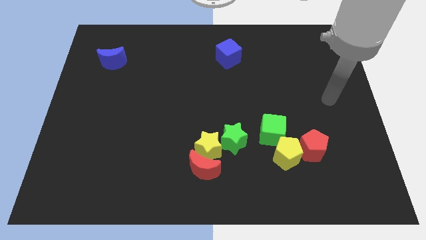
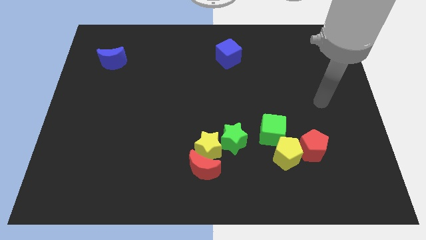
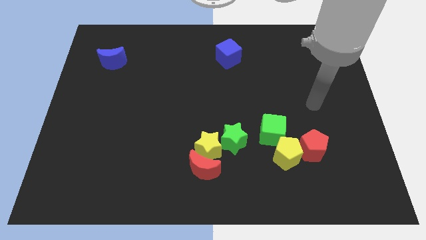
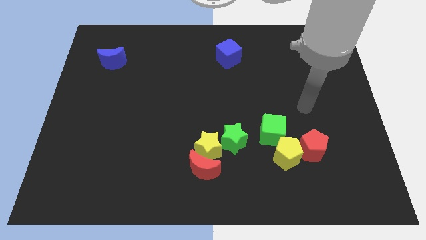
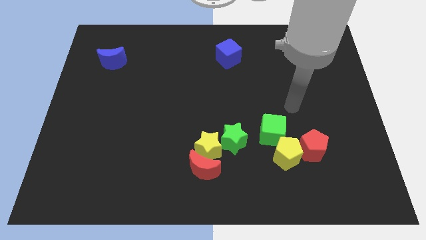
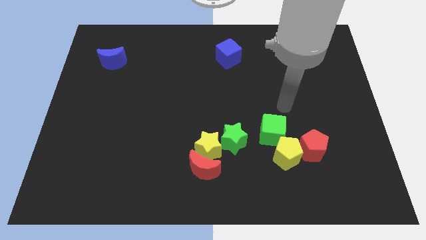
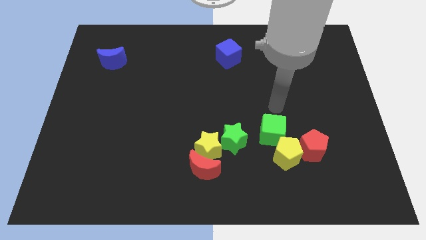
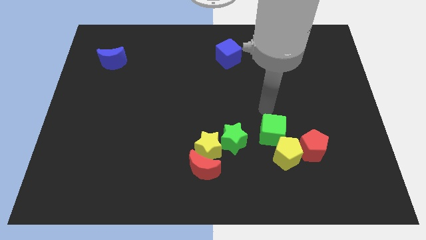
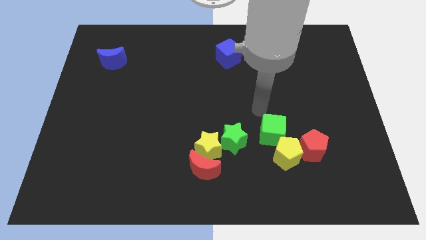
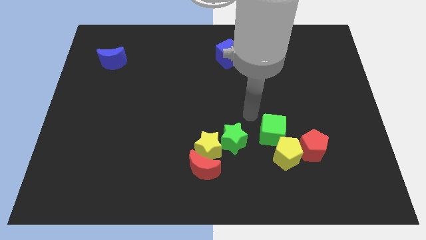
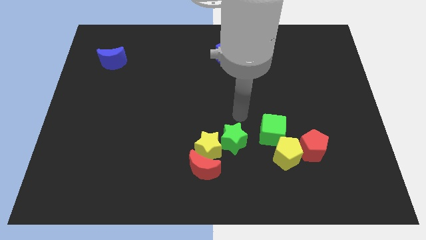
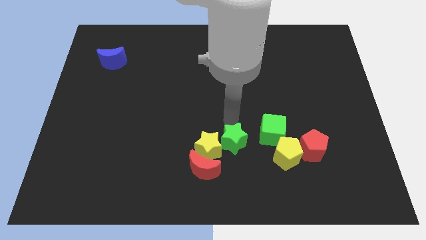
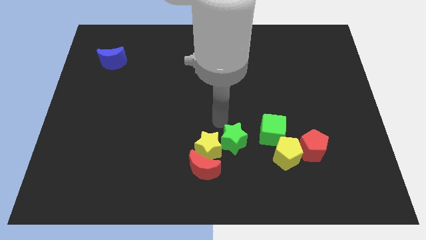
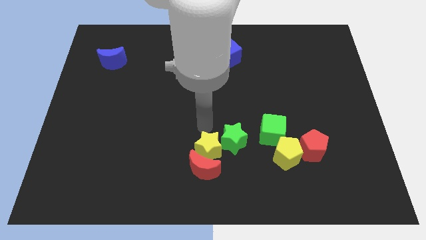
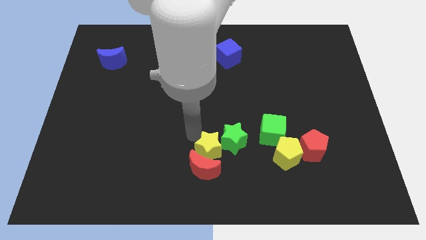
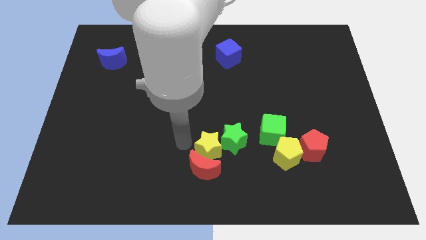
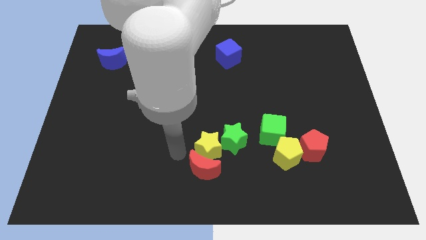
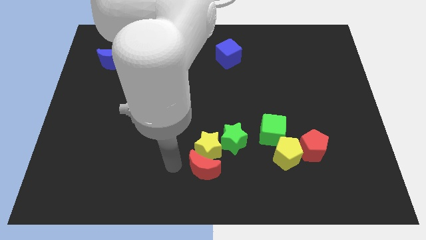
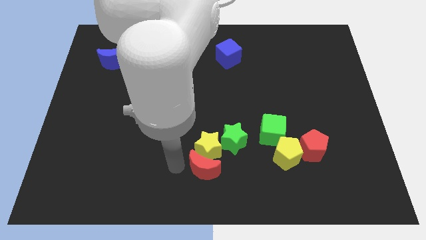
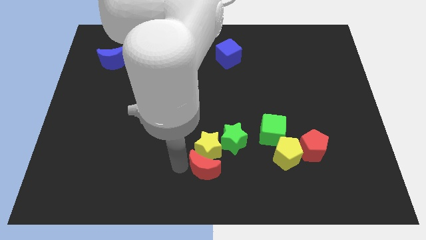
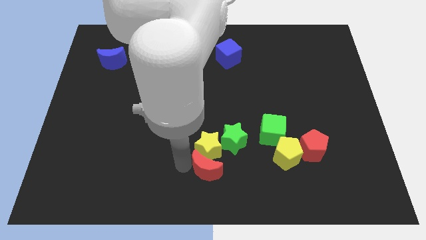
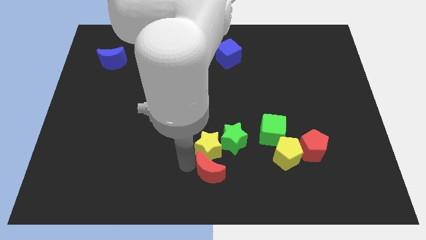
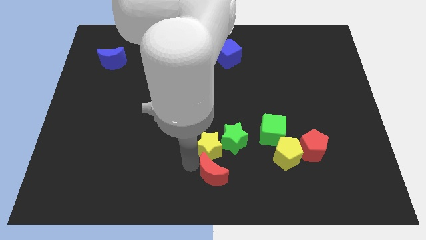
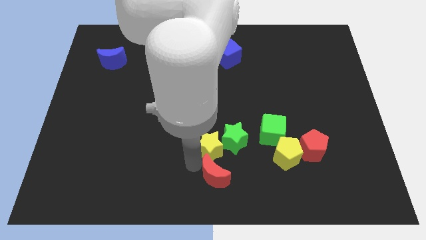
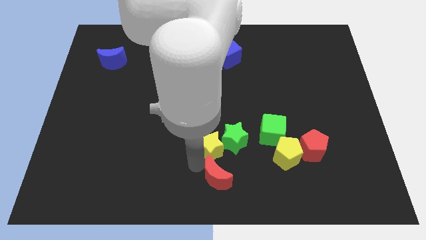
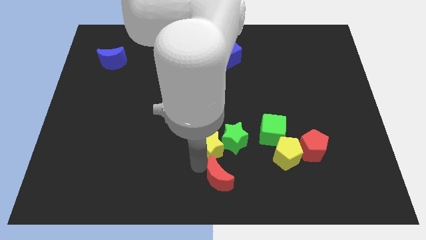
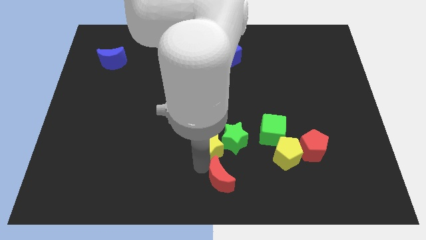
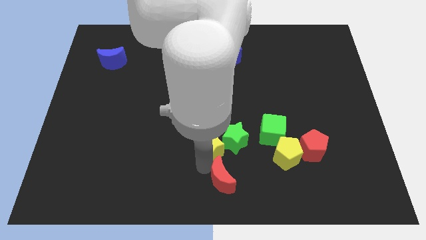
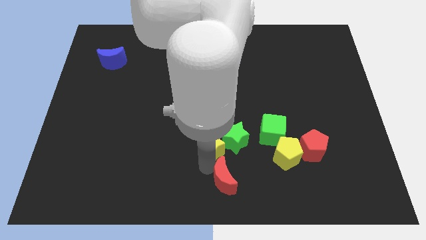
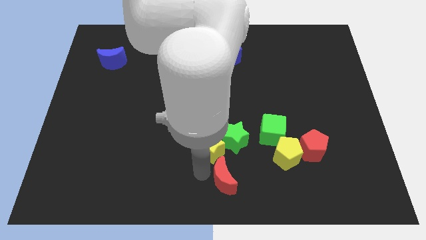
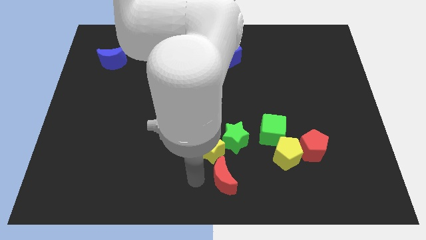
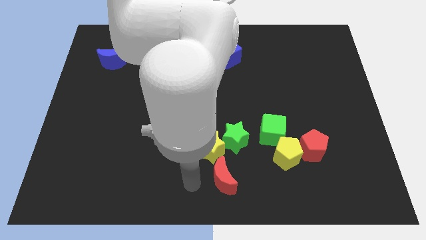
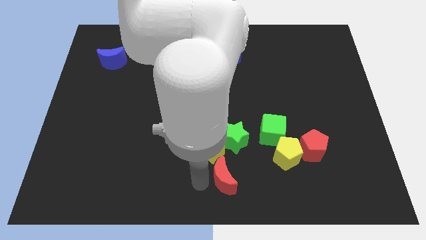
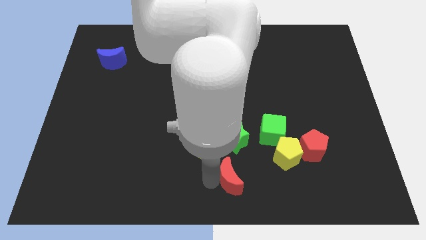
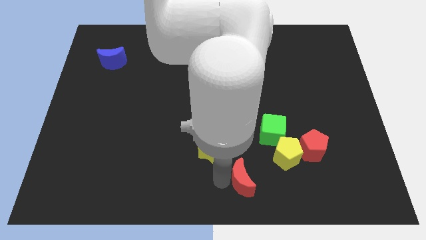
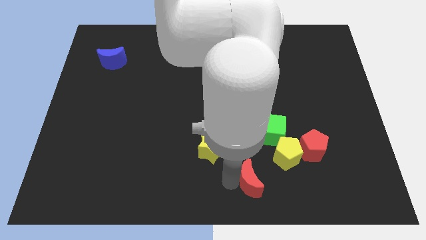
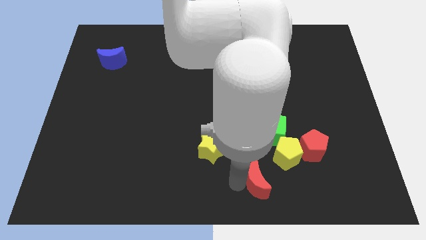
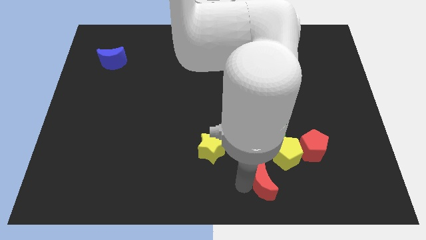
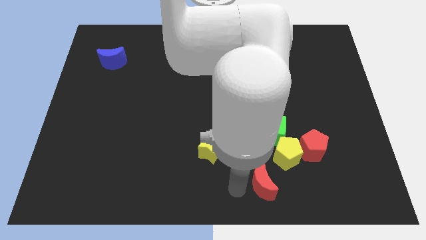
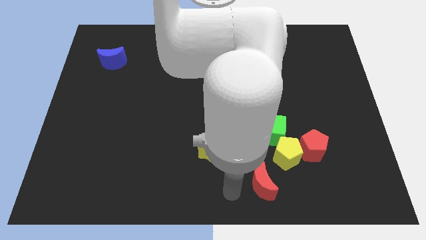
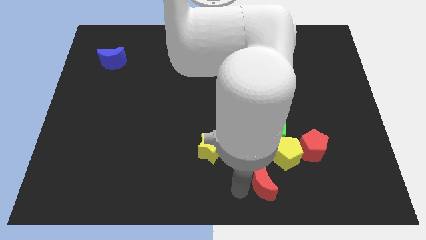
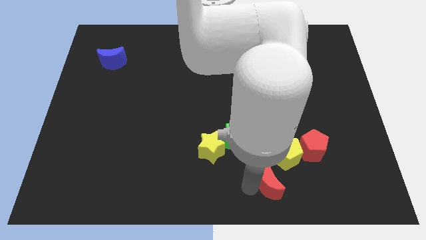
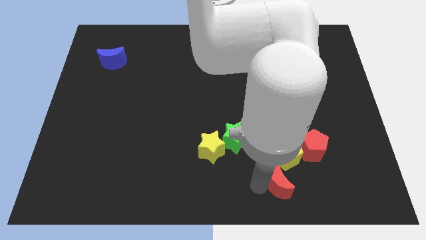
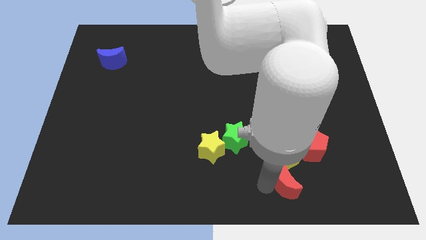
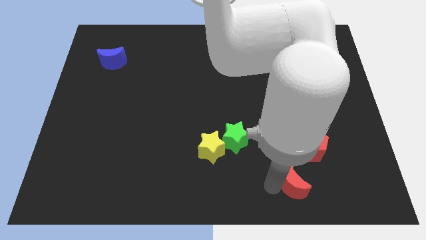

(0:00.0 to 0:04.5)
push the red moon diagonally down and to the right of the yellow pentagon

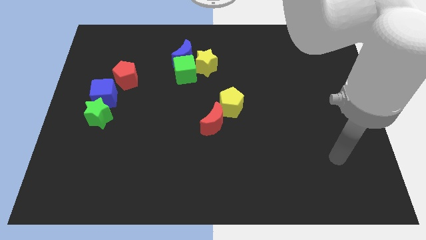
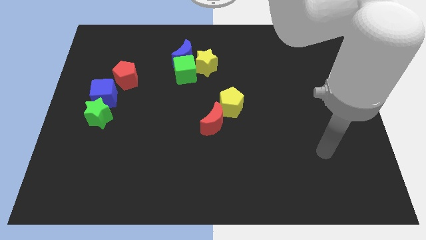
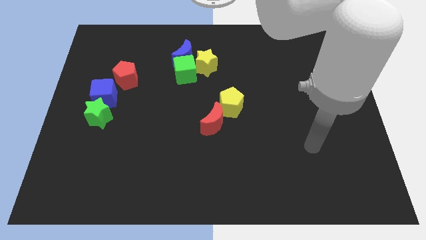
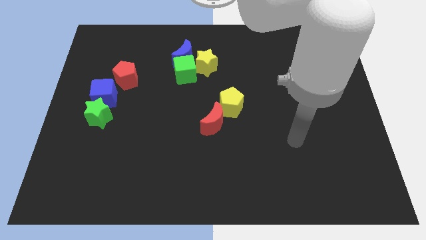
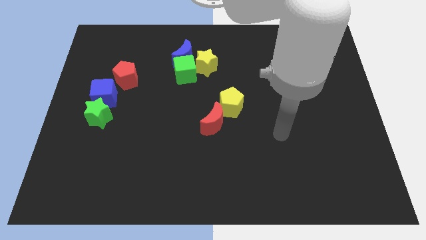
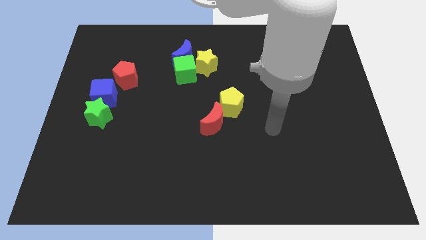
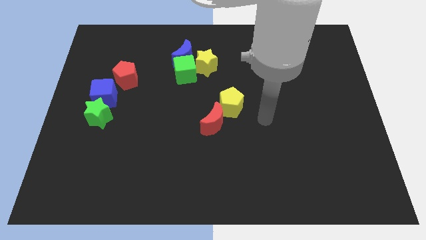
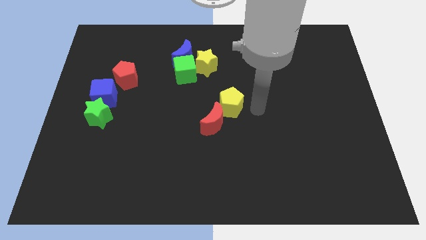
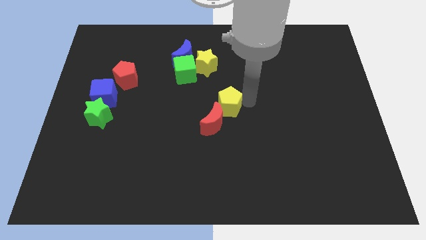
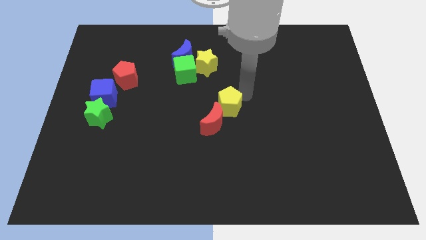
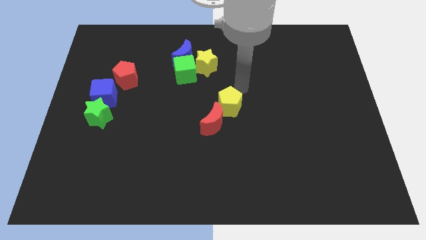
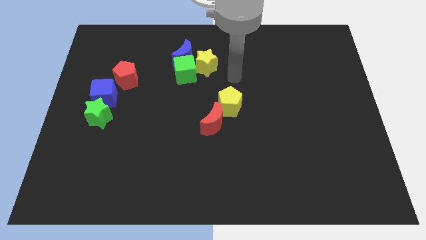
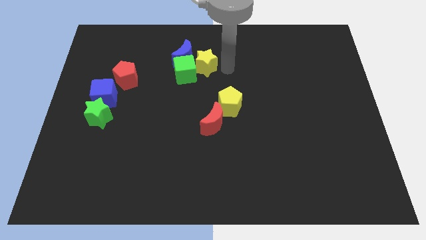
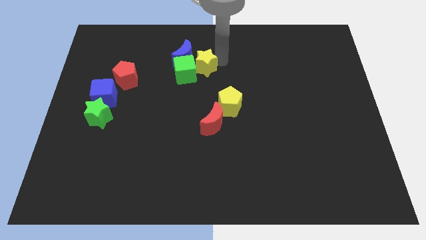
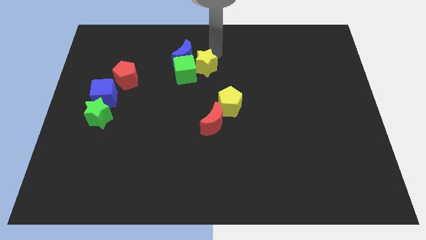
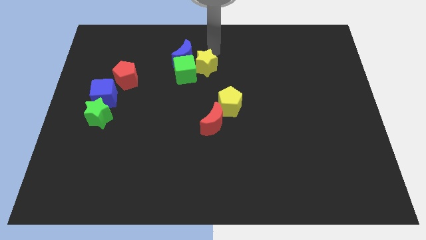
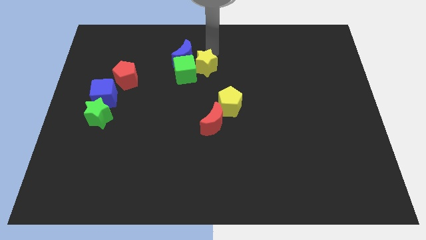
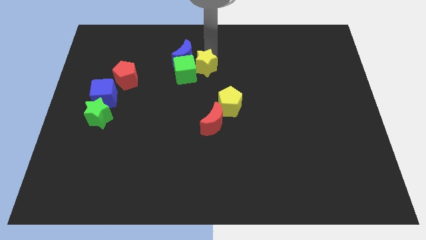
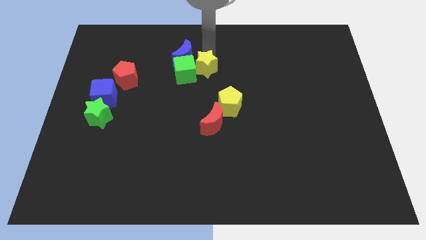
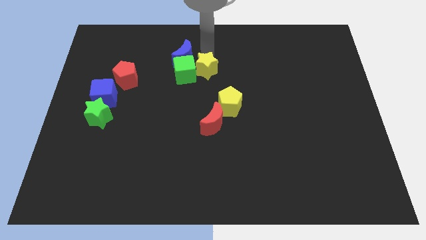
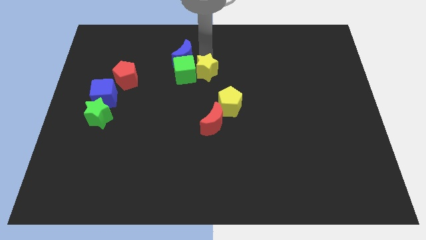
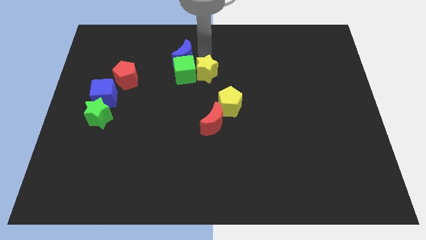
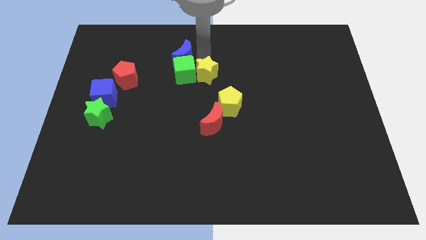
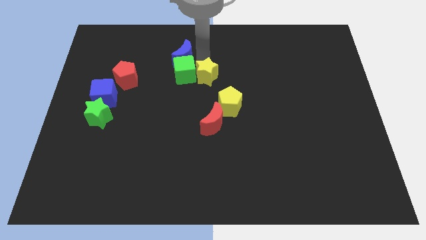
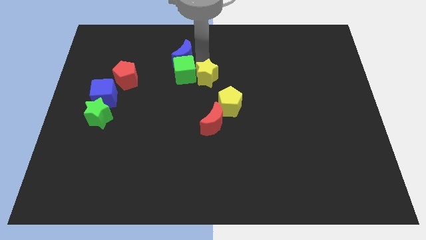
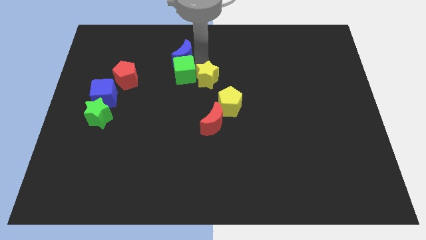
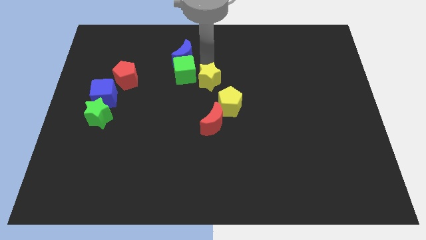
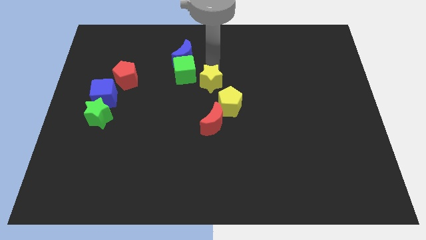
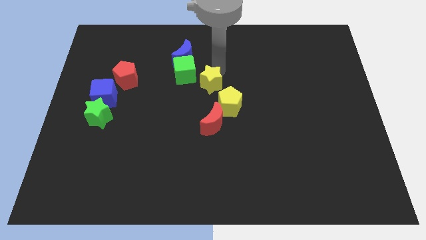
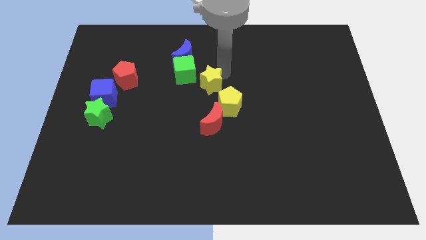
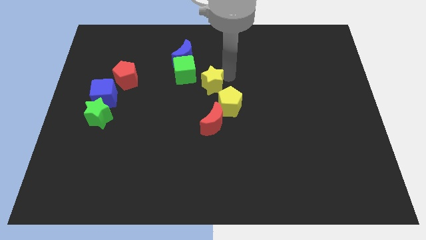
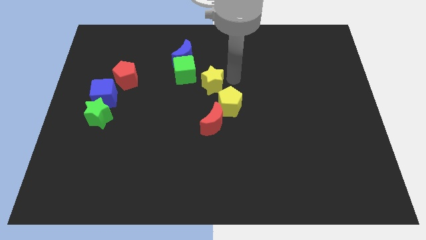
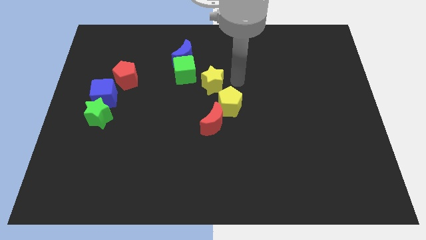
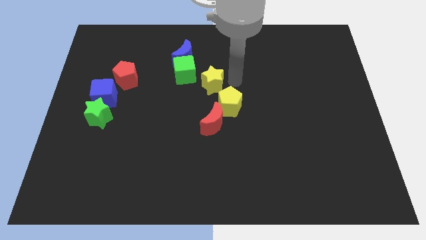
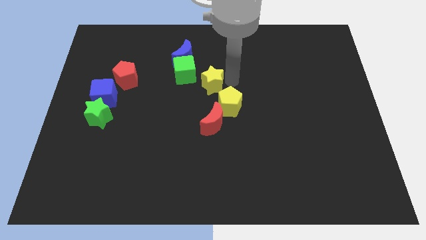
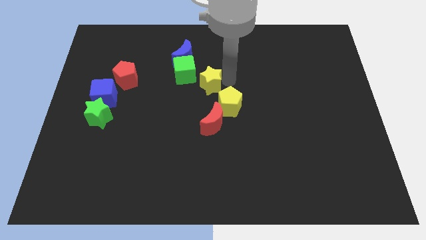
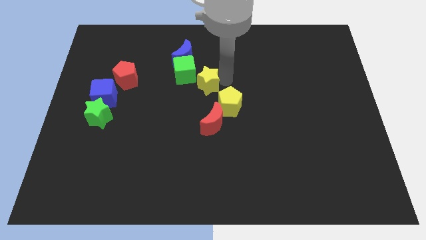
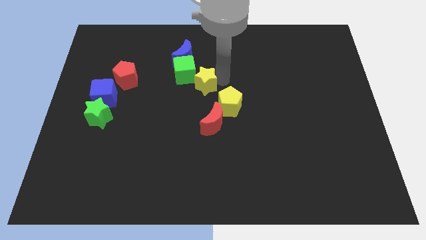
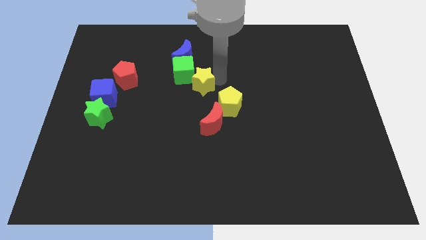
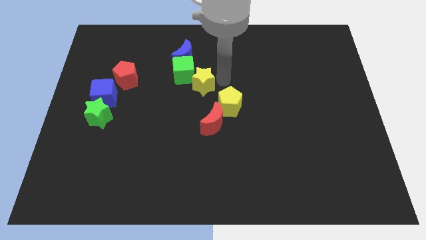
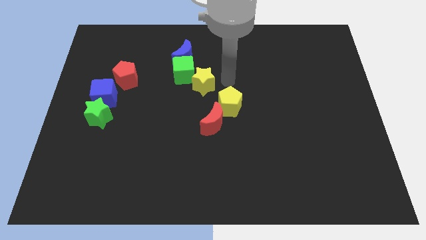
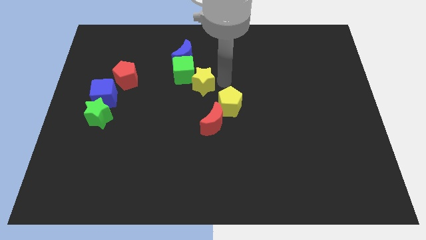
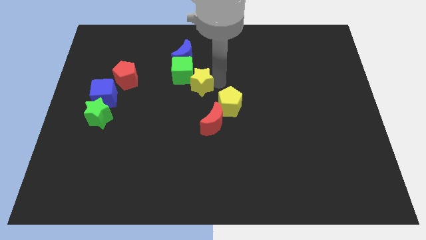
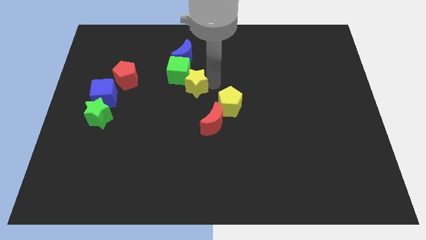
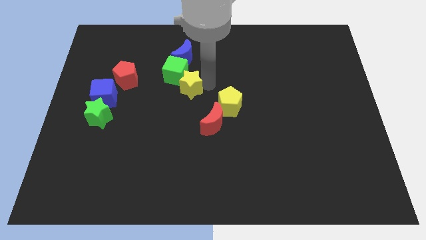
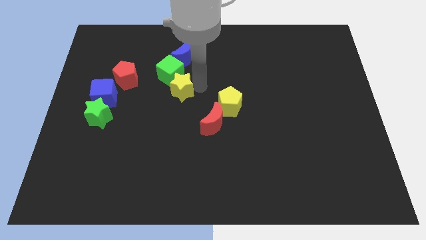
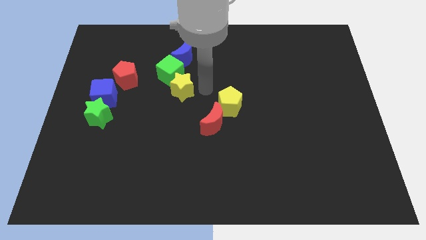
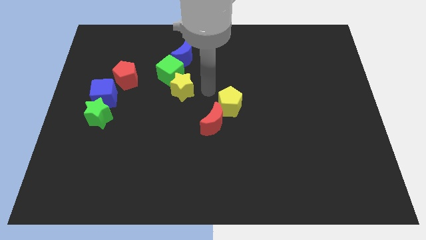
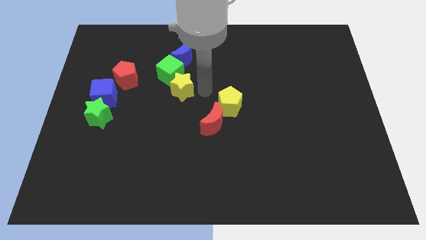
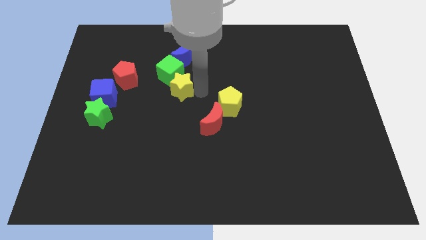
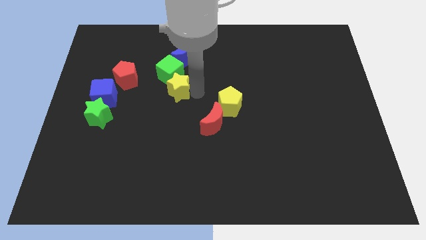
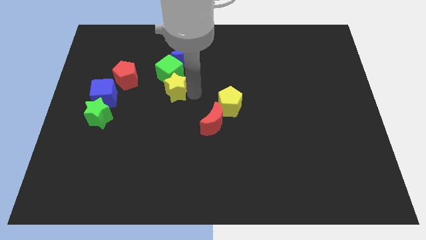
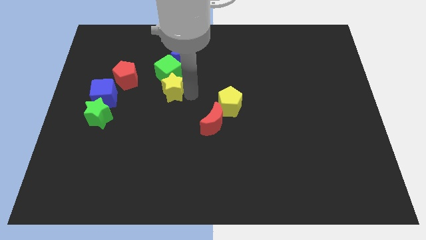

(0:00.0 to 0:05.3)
put the yellow star to the bottom left of the green cube
